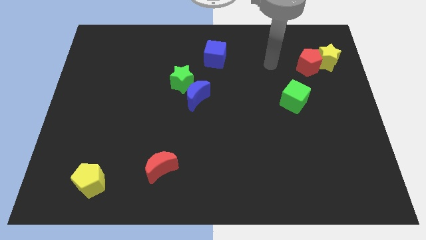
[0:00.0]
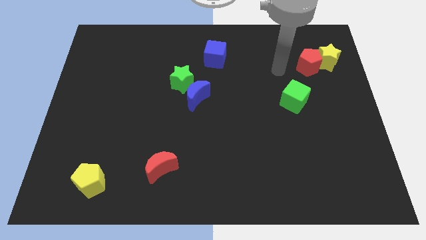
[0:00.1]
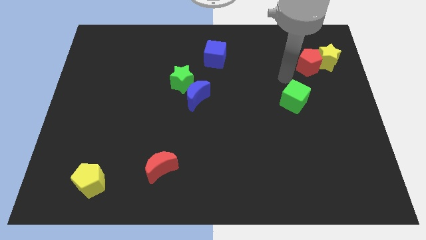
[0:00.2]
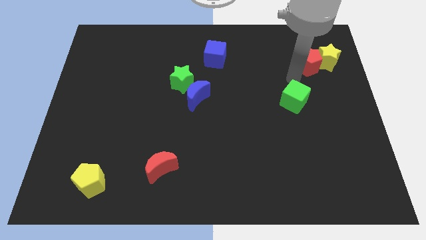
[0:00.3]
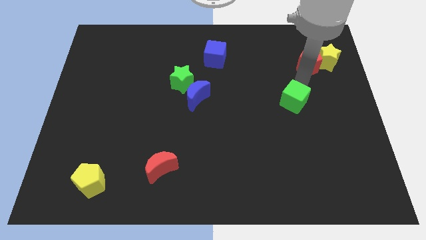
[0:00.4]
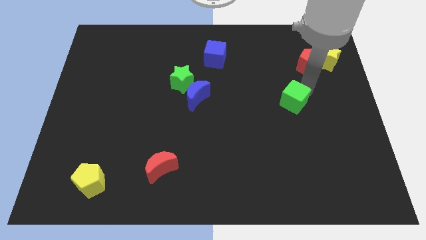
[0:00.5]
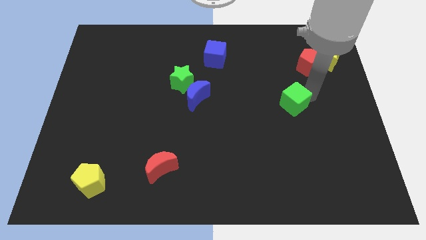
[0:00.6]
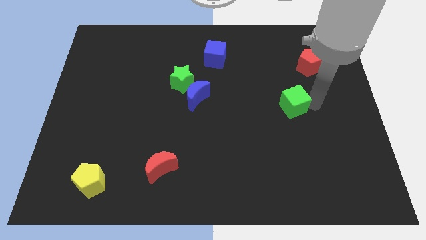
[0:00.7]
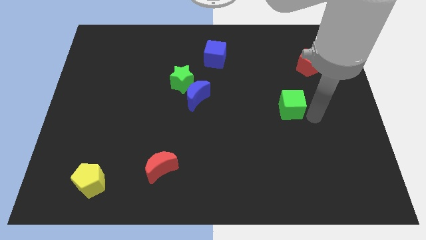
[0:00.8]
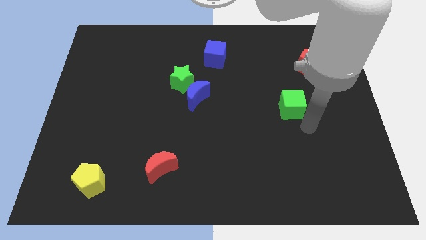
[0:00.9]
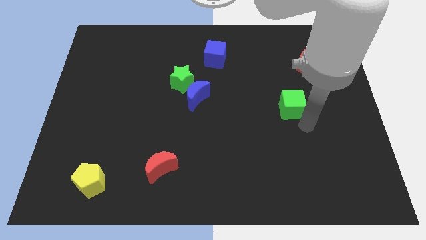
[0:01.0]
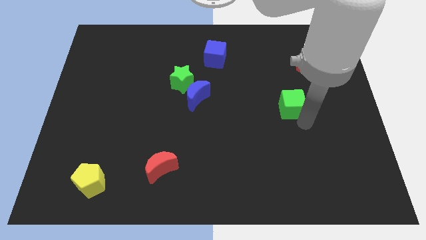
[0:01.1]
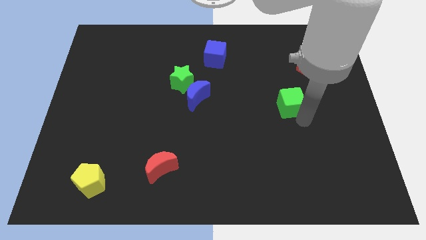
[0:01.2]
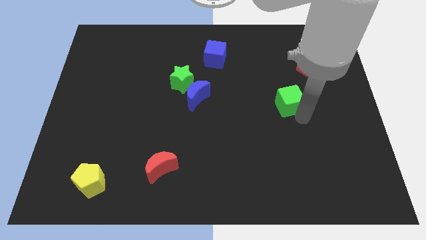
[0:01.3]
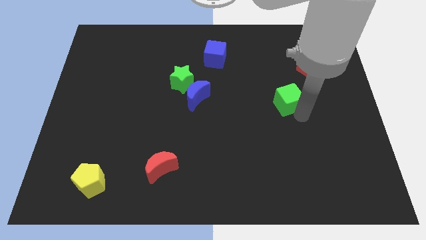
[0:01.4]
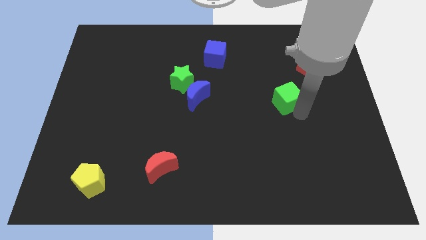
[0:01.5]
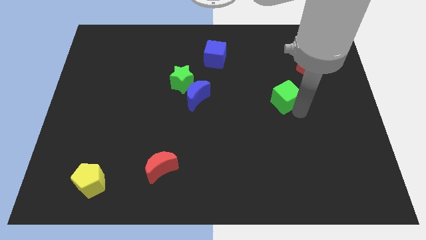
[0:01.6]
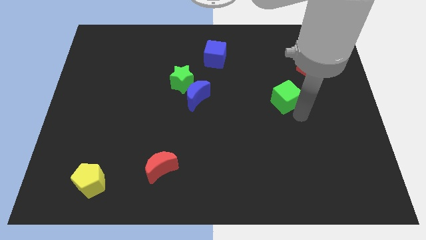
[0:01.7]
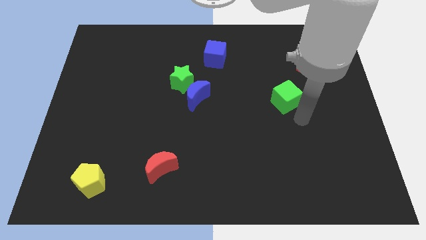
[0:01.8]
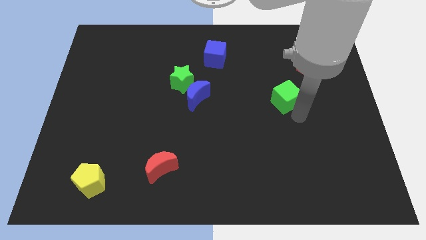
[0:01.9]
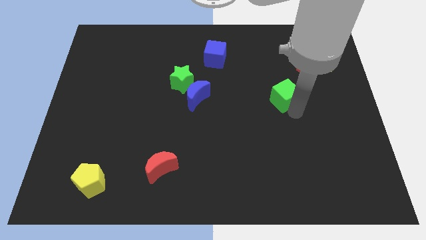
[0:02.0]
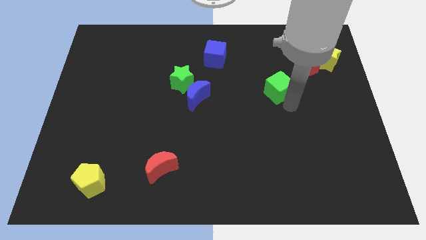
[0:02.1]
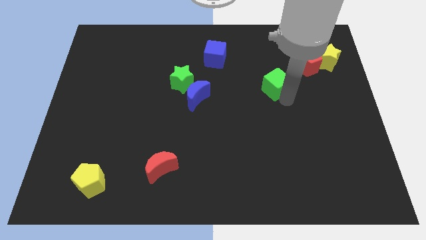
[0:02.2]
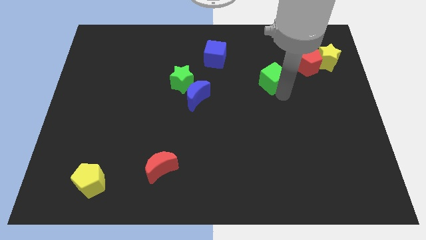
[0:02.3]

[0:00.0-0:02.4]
slide the green cube a bit diagonally upwards and left

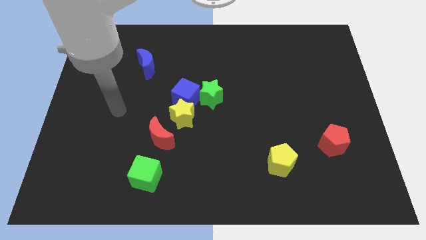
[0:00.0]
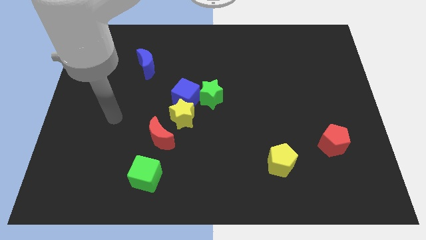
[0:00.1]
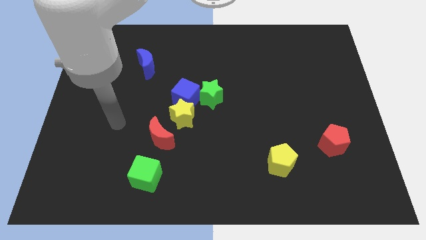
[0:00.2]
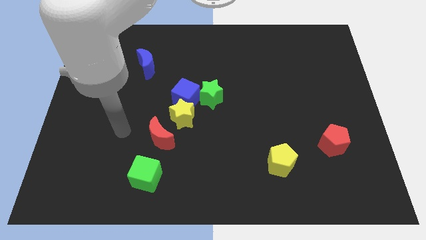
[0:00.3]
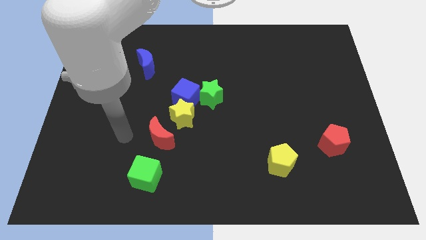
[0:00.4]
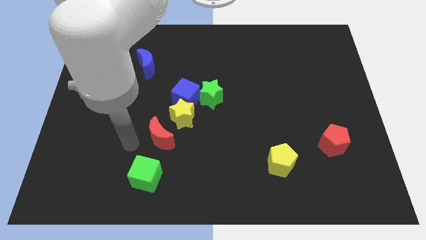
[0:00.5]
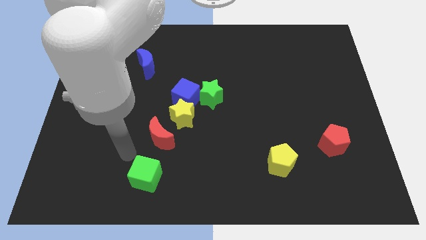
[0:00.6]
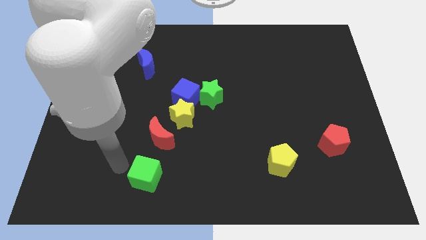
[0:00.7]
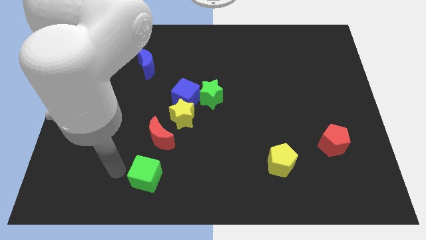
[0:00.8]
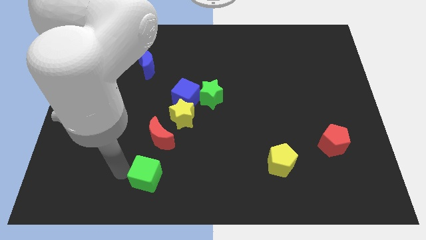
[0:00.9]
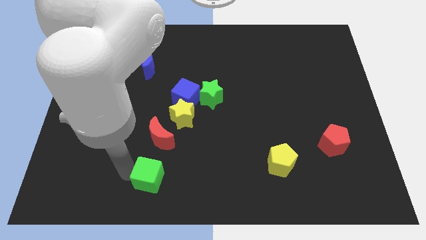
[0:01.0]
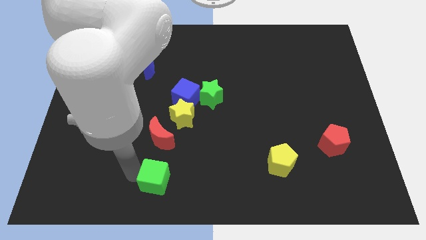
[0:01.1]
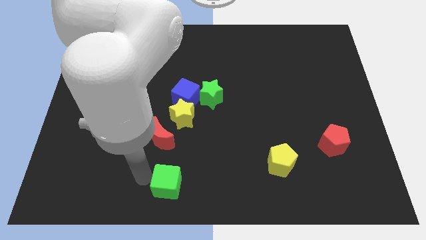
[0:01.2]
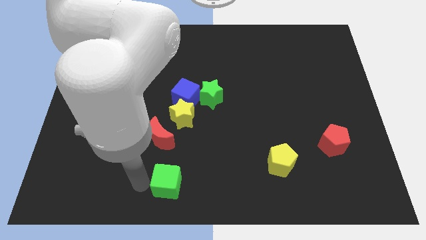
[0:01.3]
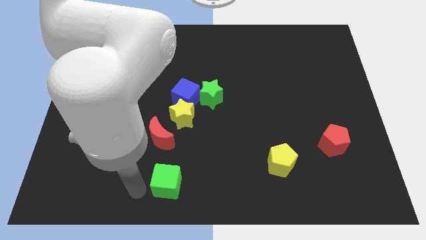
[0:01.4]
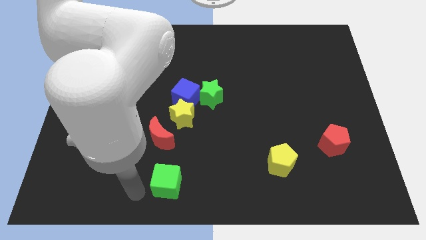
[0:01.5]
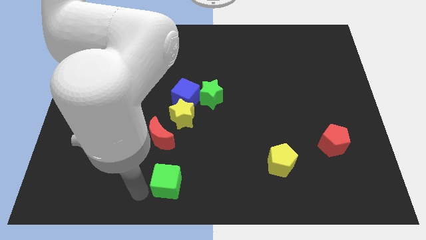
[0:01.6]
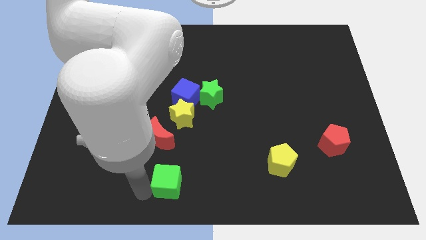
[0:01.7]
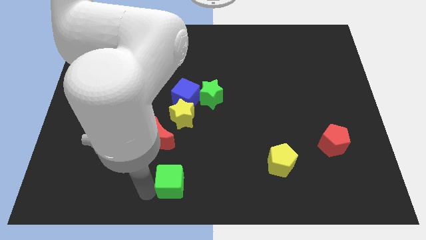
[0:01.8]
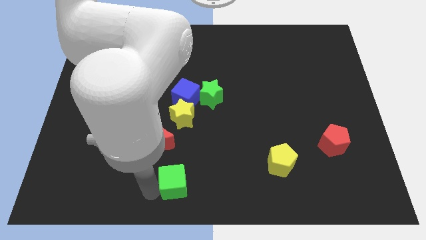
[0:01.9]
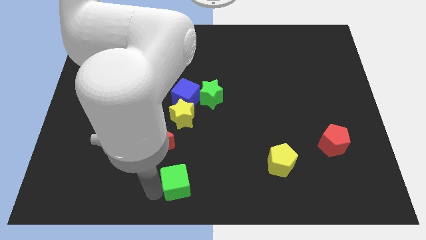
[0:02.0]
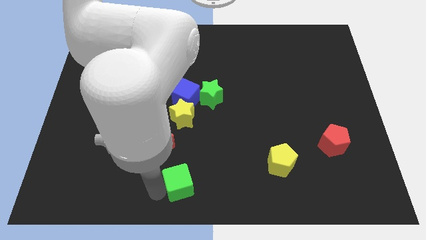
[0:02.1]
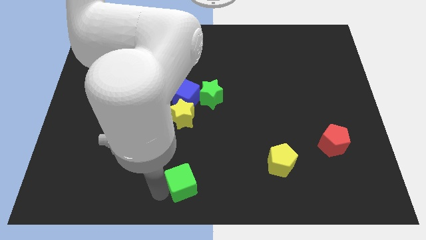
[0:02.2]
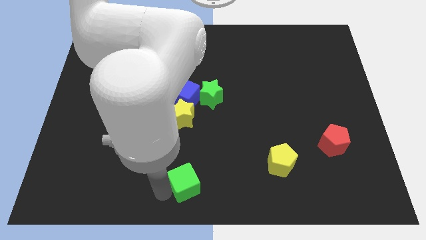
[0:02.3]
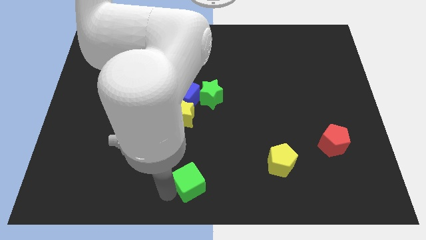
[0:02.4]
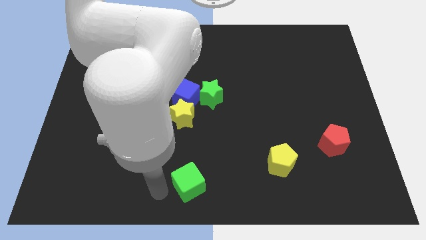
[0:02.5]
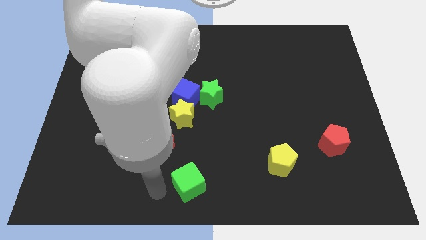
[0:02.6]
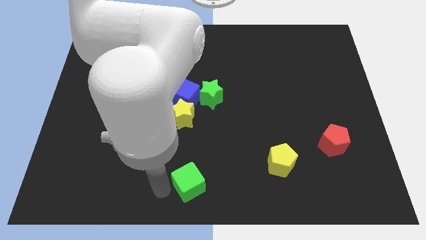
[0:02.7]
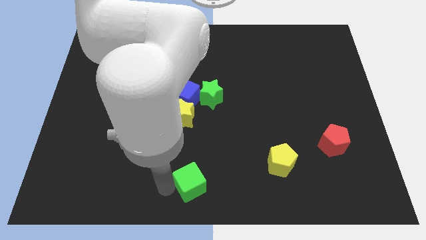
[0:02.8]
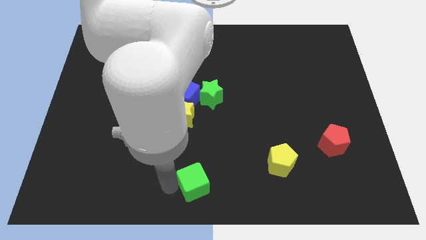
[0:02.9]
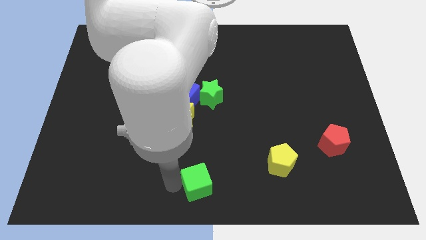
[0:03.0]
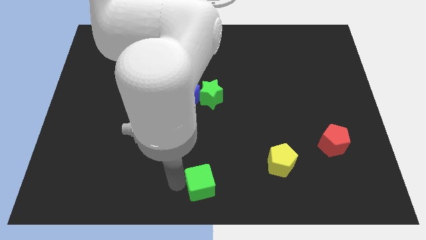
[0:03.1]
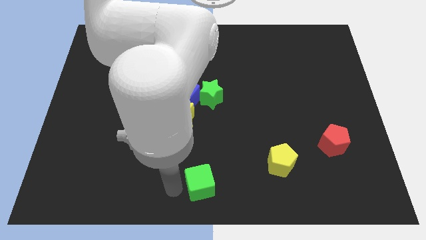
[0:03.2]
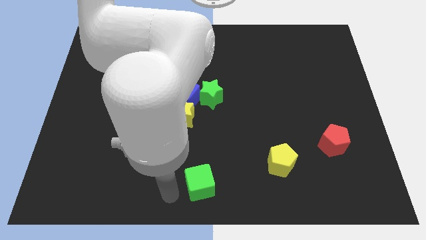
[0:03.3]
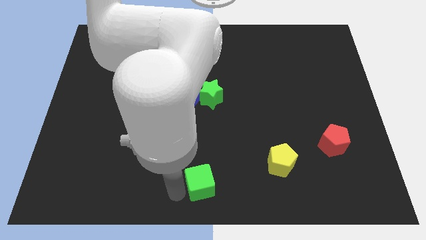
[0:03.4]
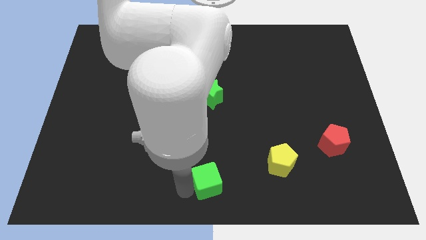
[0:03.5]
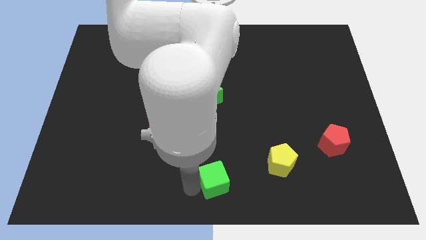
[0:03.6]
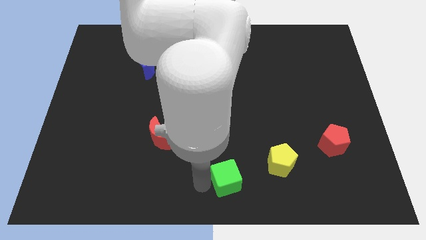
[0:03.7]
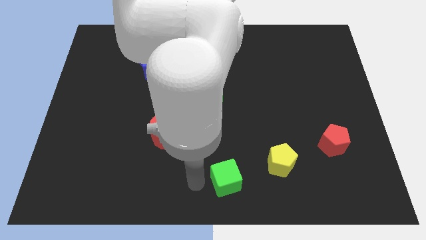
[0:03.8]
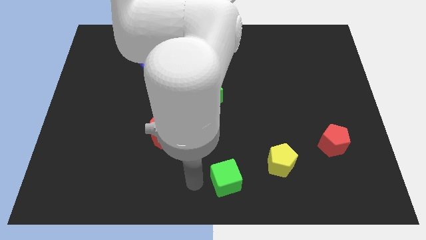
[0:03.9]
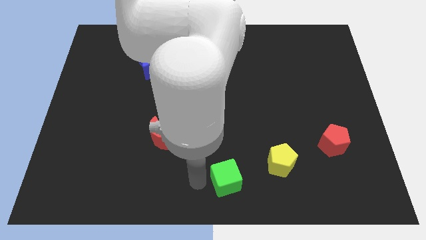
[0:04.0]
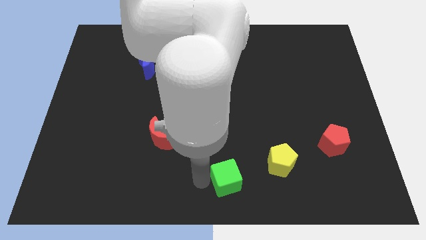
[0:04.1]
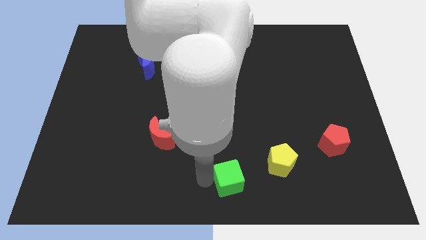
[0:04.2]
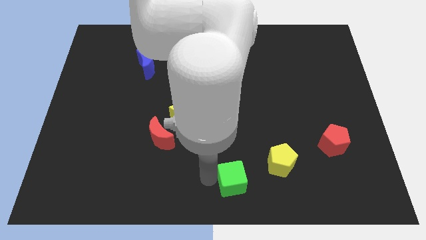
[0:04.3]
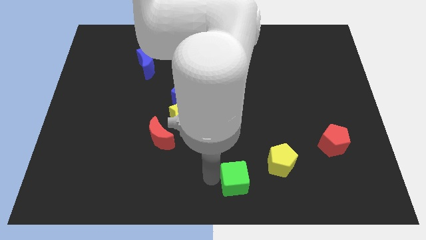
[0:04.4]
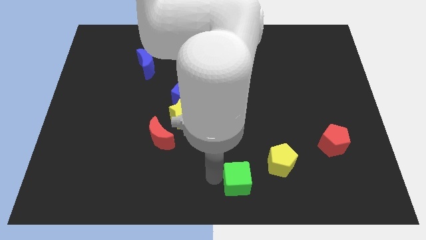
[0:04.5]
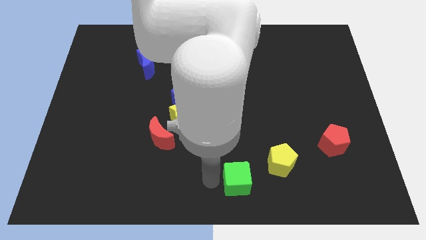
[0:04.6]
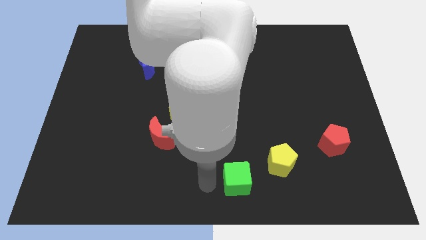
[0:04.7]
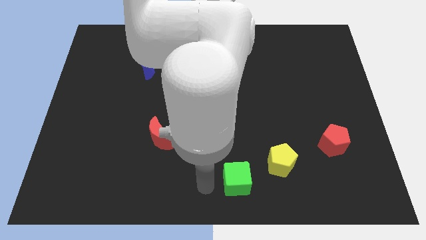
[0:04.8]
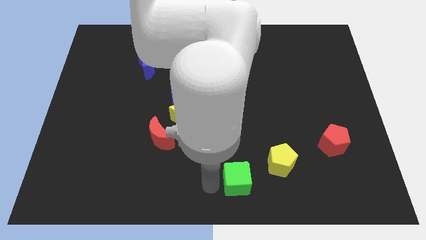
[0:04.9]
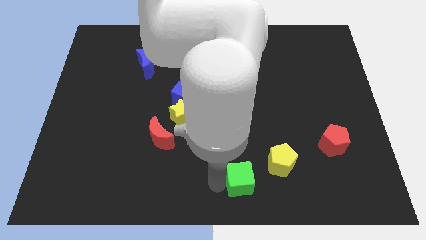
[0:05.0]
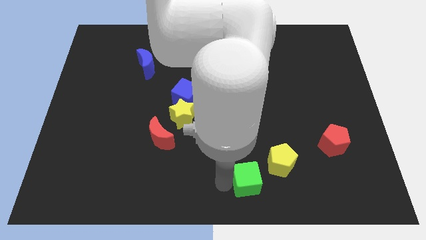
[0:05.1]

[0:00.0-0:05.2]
push the green cube right

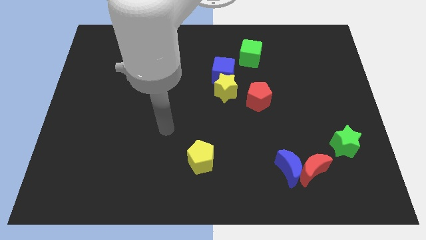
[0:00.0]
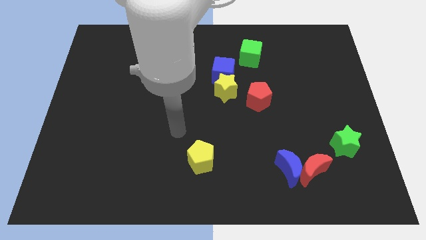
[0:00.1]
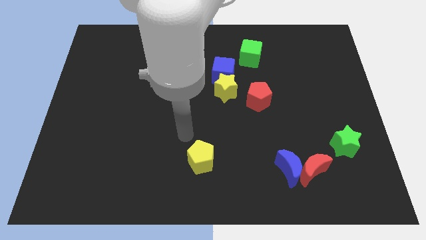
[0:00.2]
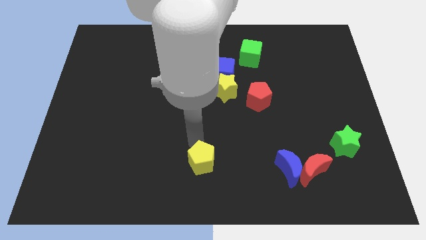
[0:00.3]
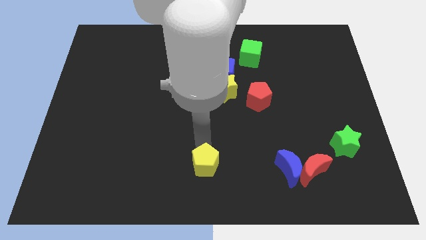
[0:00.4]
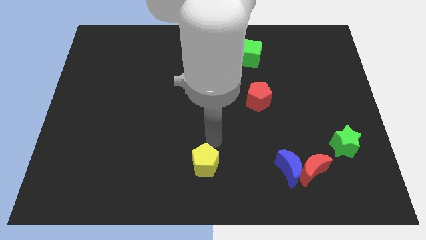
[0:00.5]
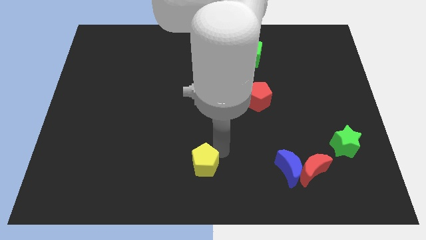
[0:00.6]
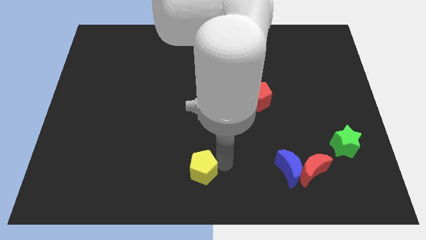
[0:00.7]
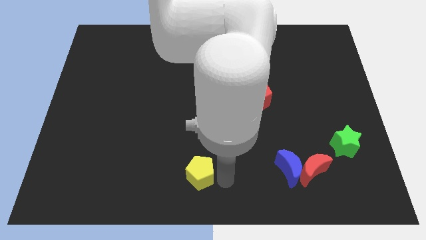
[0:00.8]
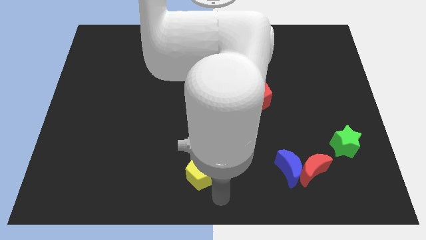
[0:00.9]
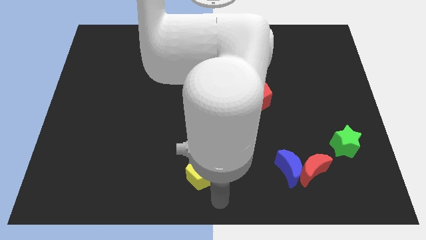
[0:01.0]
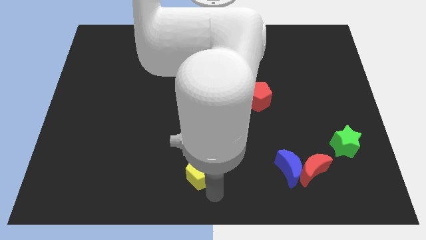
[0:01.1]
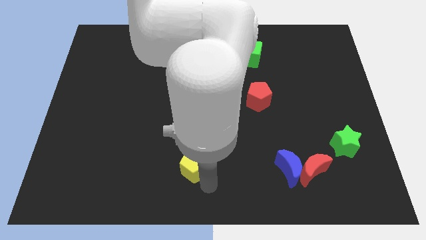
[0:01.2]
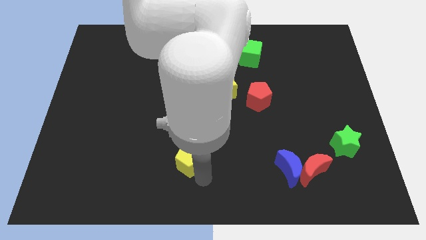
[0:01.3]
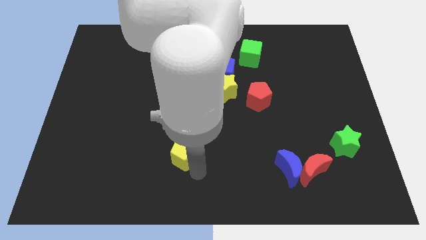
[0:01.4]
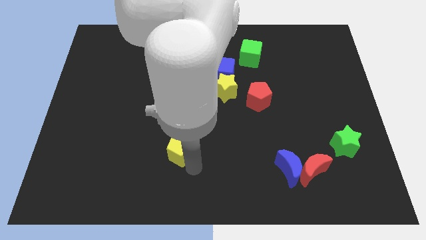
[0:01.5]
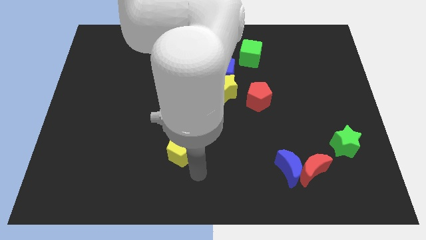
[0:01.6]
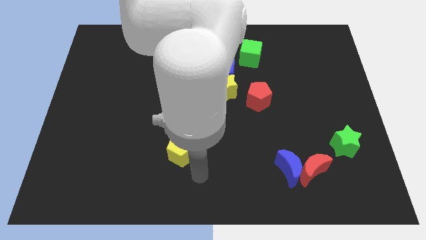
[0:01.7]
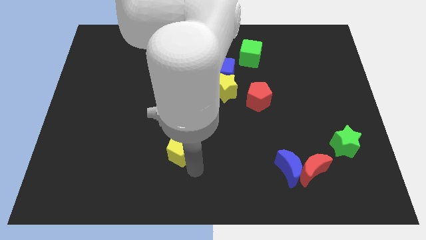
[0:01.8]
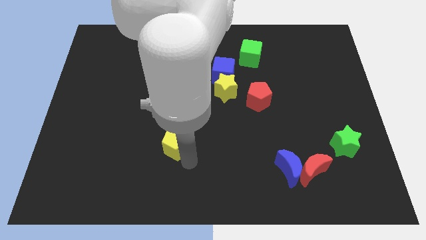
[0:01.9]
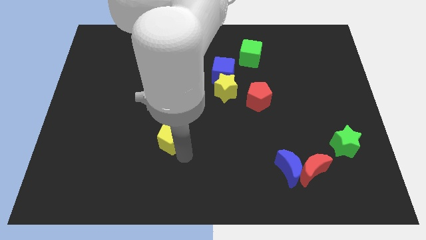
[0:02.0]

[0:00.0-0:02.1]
push the yellow pentagon a bit up and then to the left
